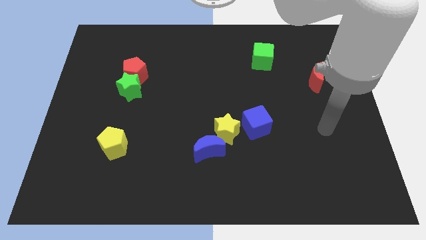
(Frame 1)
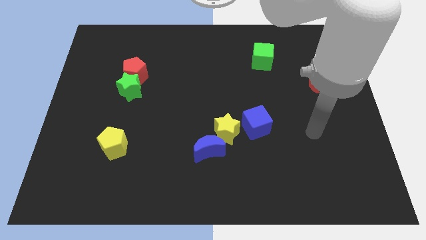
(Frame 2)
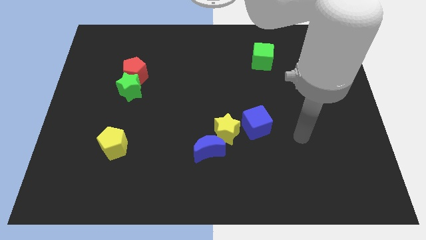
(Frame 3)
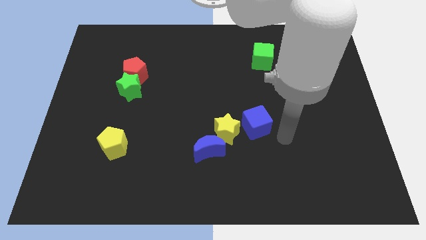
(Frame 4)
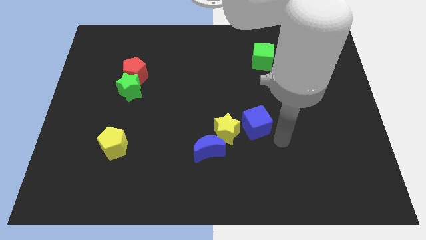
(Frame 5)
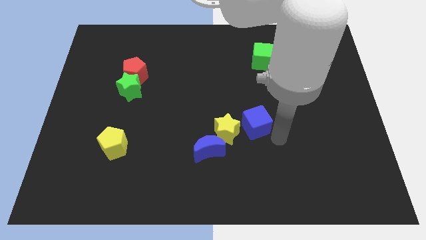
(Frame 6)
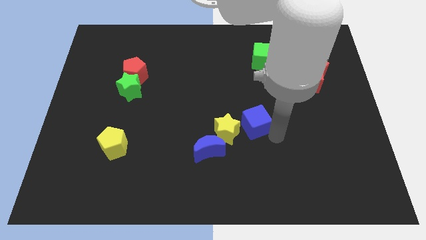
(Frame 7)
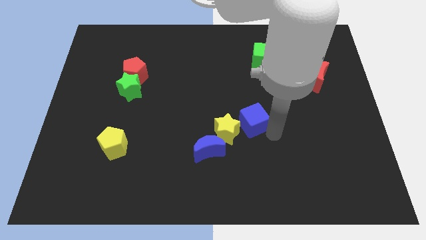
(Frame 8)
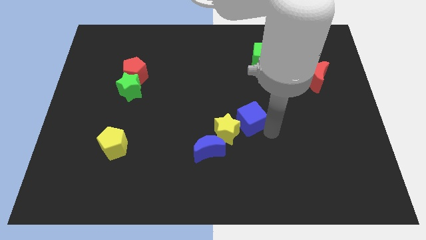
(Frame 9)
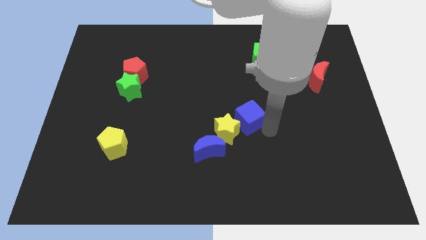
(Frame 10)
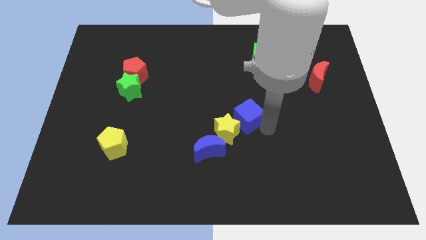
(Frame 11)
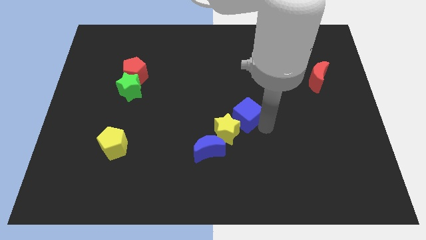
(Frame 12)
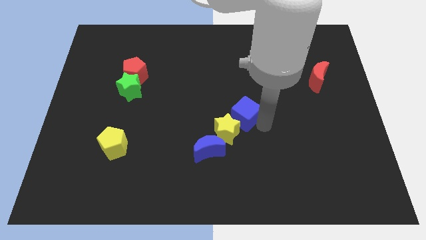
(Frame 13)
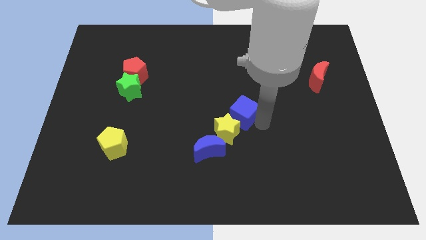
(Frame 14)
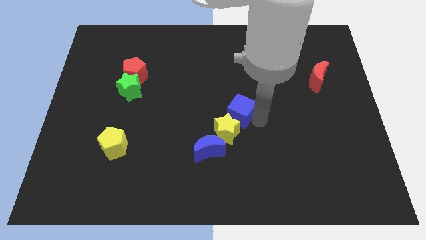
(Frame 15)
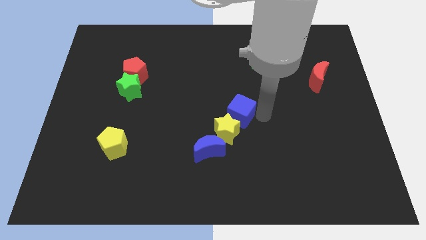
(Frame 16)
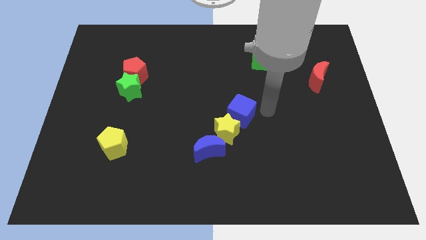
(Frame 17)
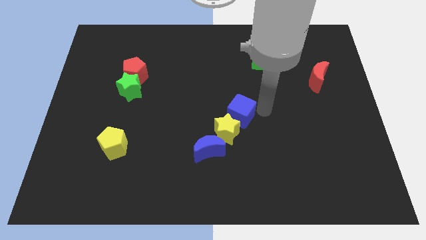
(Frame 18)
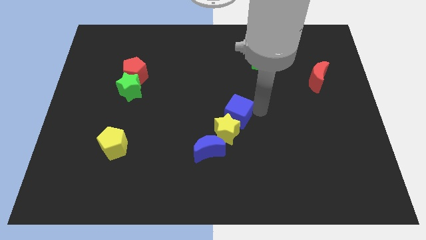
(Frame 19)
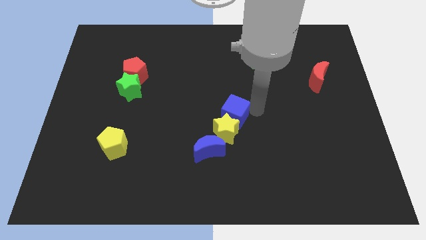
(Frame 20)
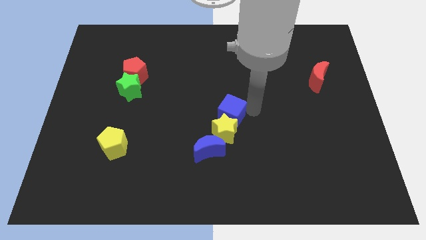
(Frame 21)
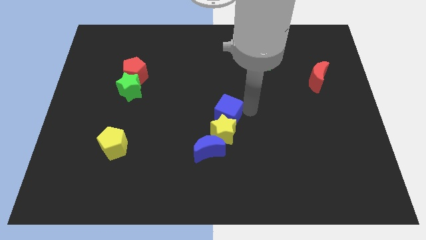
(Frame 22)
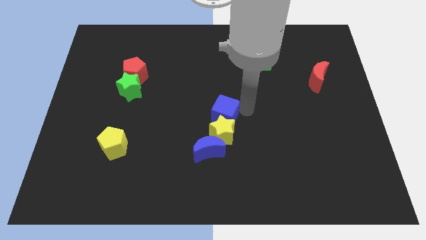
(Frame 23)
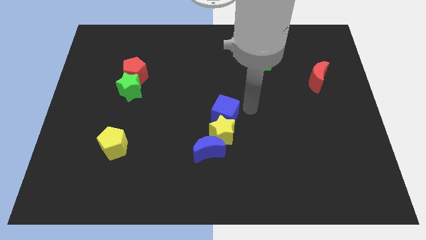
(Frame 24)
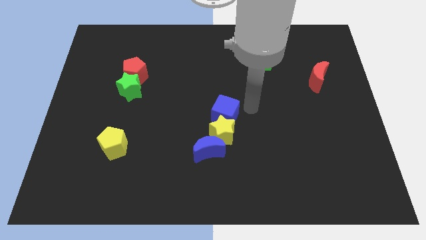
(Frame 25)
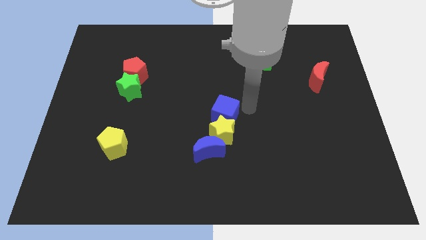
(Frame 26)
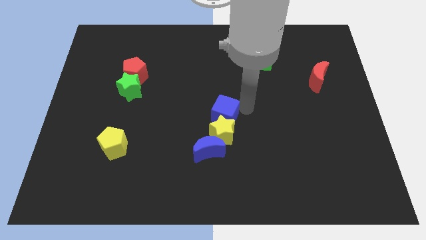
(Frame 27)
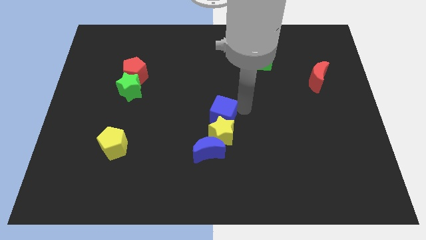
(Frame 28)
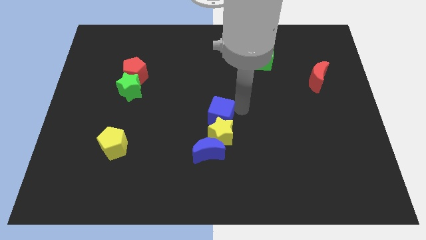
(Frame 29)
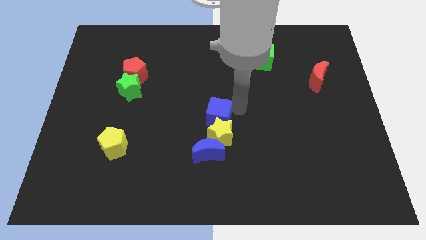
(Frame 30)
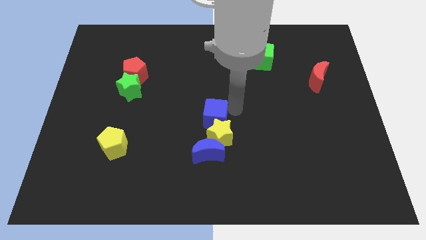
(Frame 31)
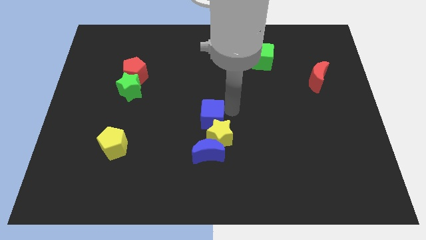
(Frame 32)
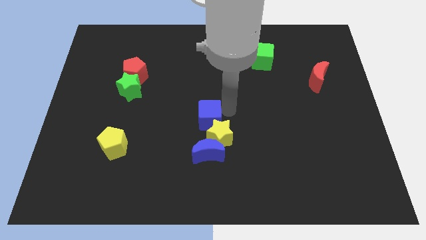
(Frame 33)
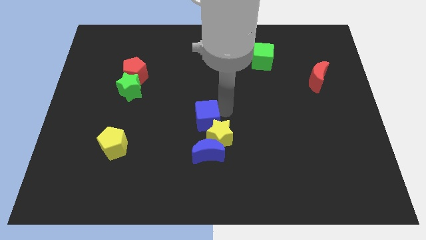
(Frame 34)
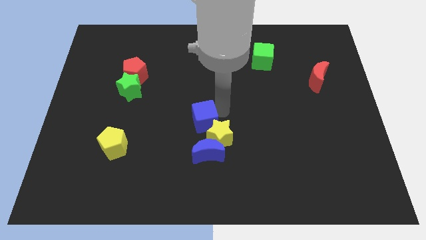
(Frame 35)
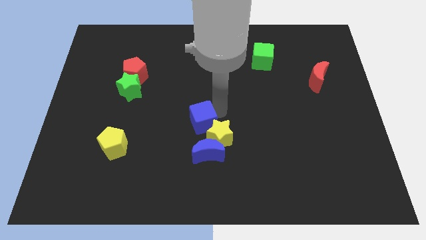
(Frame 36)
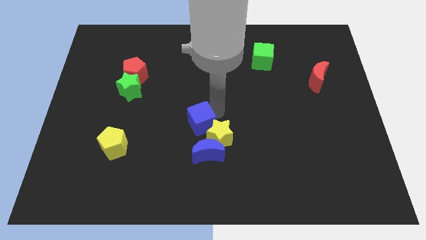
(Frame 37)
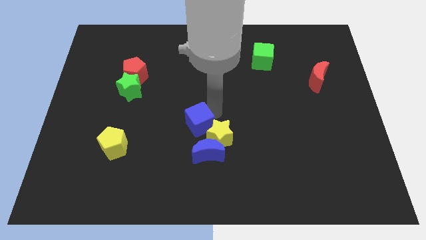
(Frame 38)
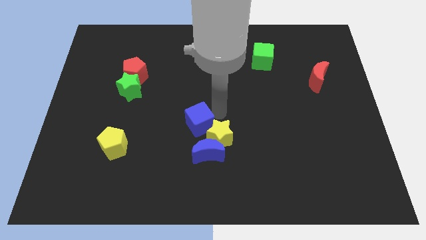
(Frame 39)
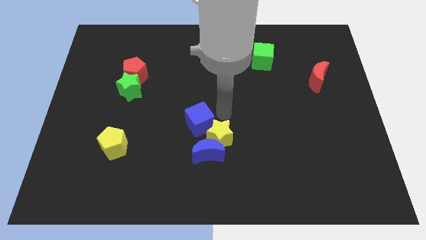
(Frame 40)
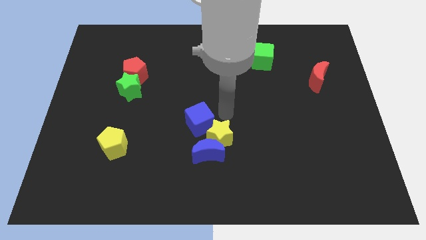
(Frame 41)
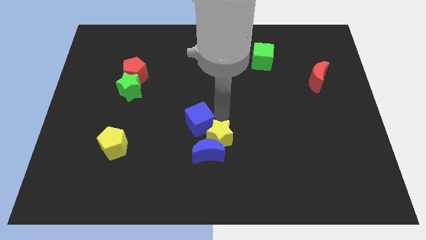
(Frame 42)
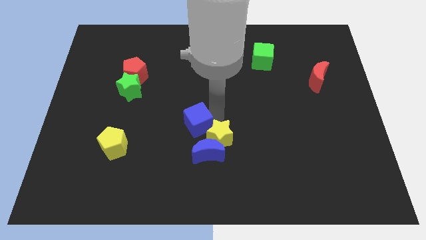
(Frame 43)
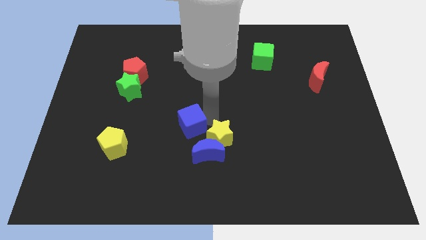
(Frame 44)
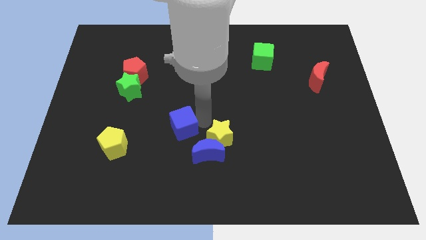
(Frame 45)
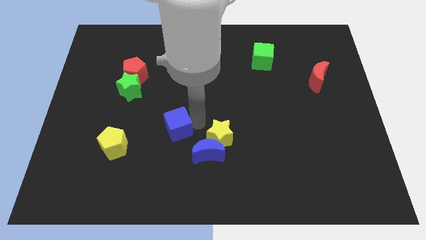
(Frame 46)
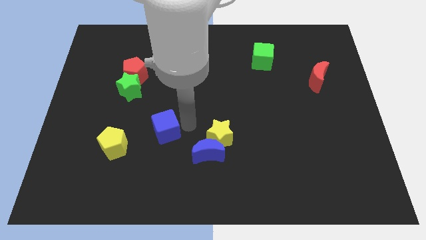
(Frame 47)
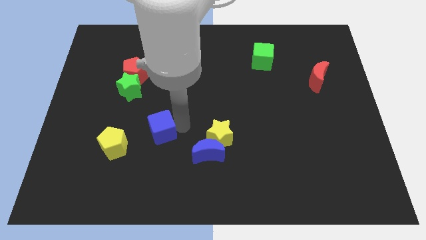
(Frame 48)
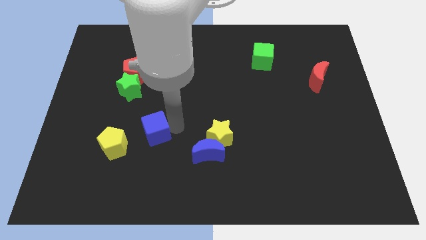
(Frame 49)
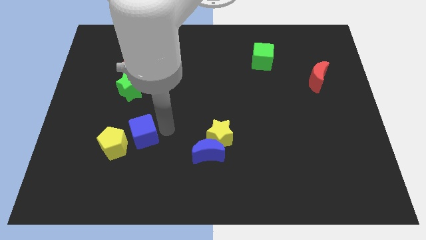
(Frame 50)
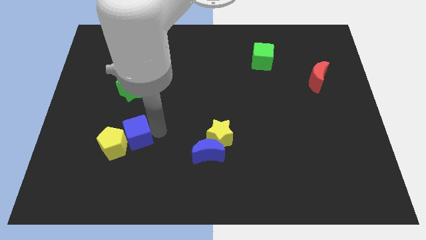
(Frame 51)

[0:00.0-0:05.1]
put the blue cube close to the yellow pentagon
